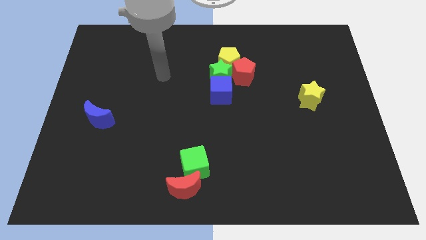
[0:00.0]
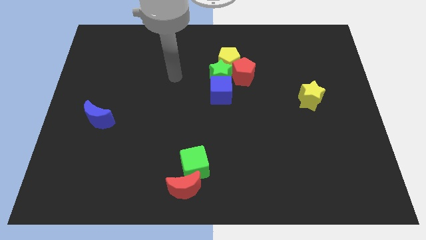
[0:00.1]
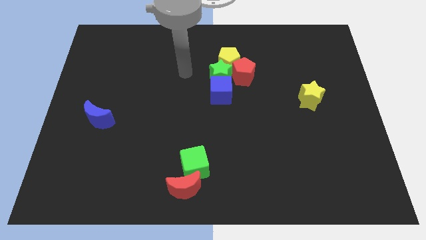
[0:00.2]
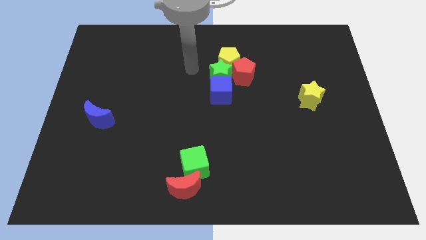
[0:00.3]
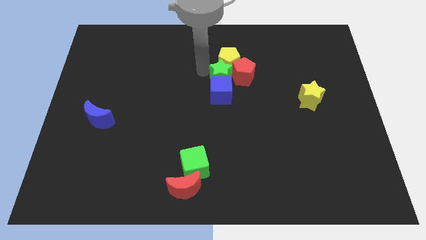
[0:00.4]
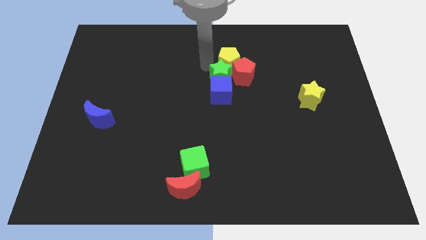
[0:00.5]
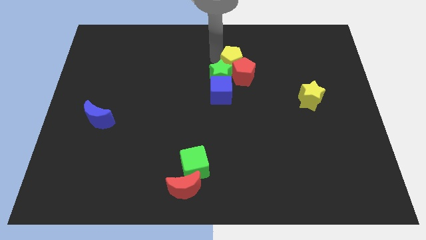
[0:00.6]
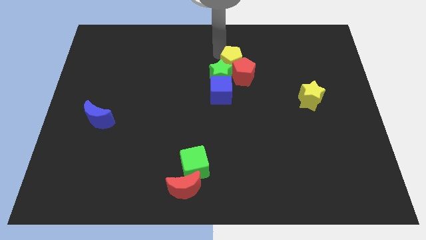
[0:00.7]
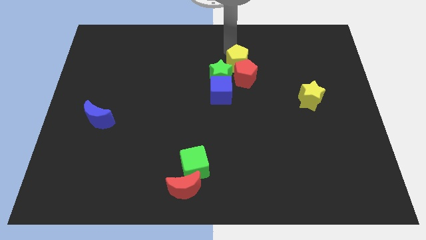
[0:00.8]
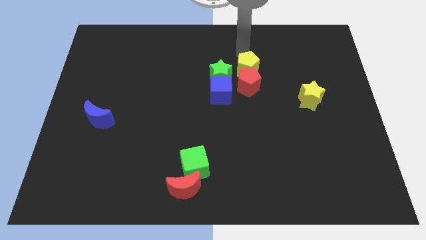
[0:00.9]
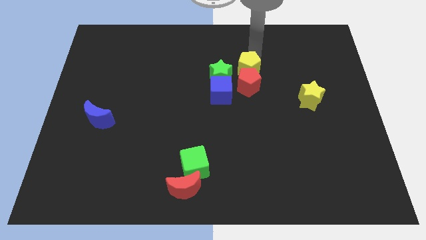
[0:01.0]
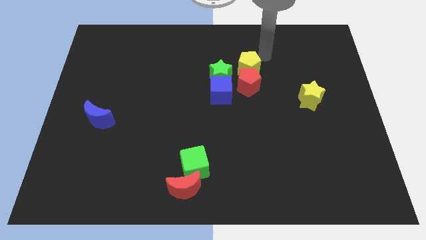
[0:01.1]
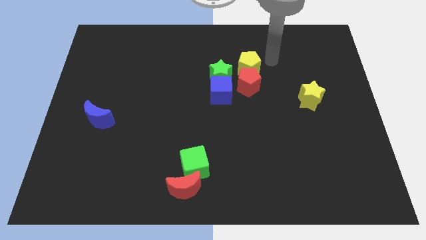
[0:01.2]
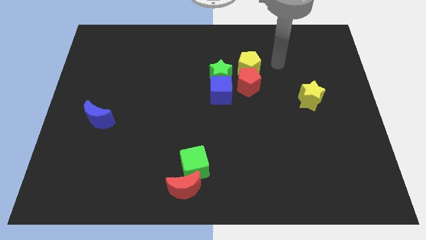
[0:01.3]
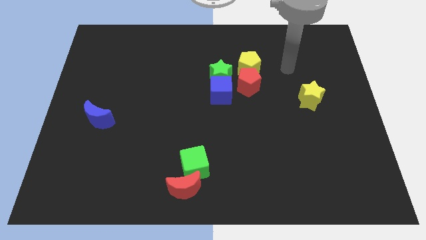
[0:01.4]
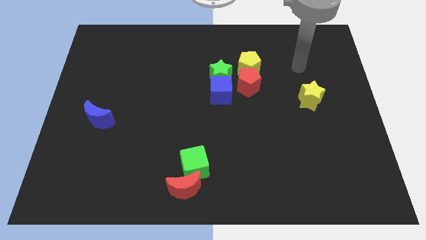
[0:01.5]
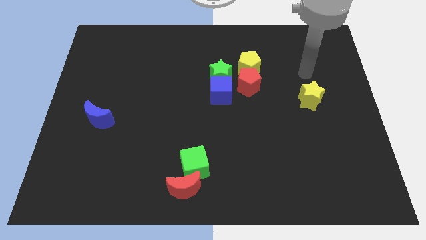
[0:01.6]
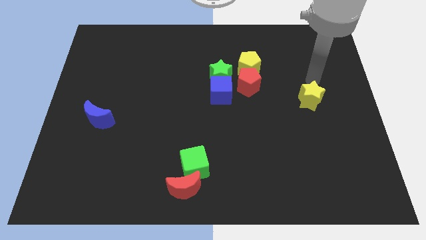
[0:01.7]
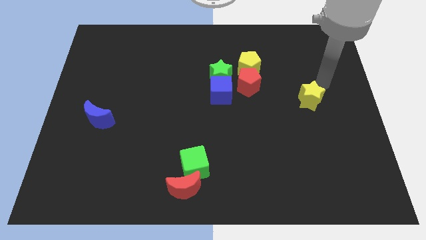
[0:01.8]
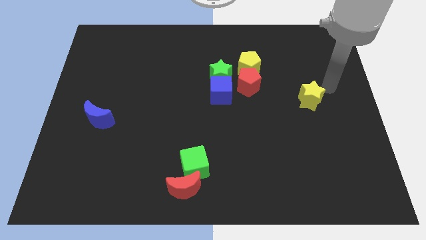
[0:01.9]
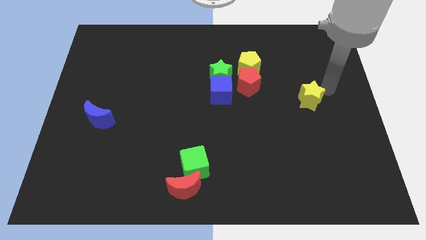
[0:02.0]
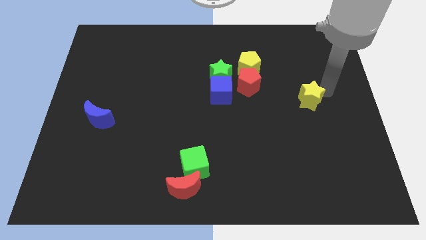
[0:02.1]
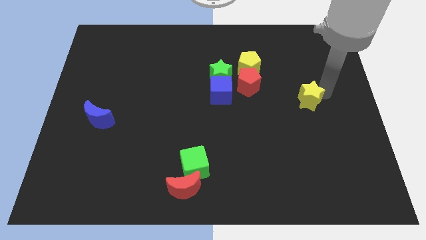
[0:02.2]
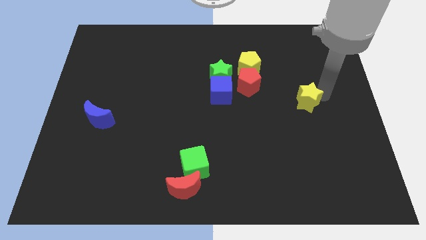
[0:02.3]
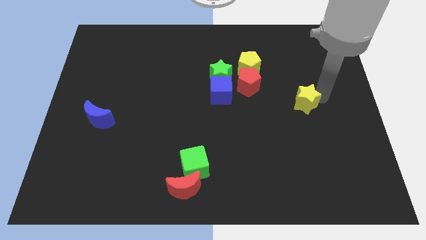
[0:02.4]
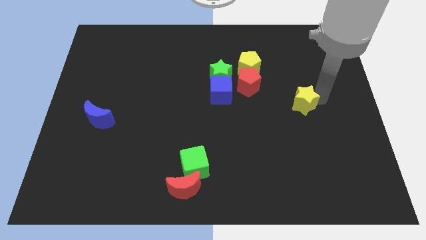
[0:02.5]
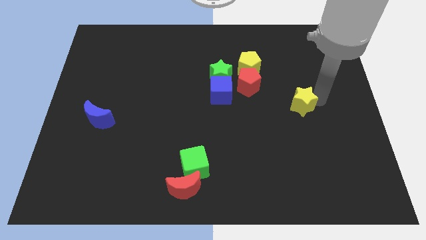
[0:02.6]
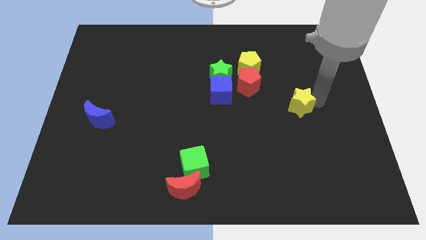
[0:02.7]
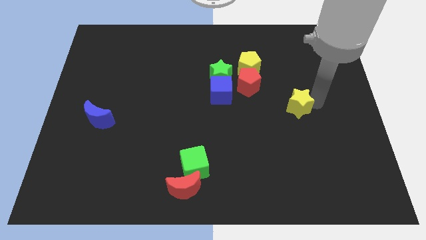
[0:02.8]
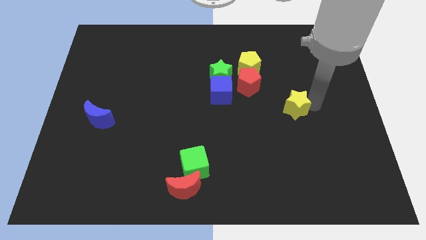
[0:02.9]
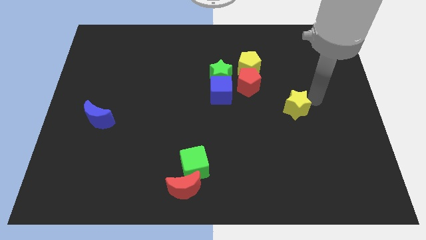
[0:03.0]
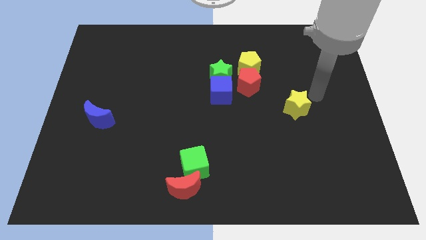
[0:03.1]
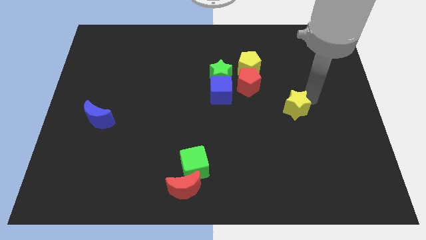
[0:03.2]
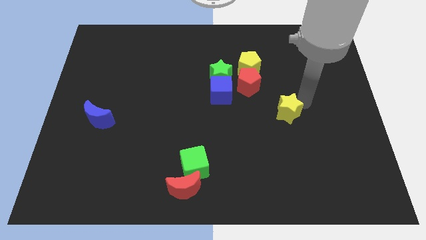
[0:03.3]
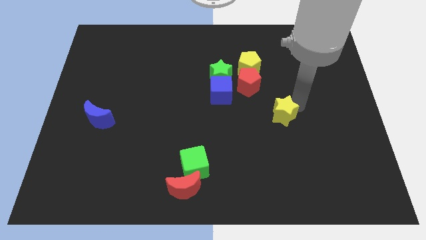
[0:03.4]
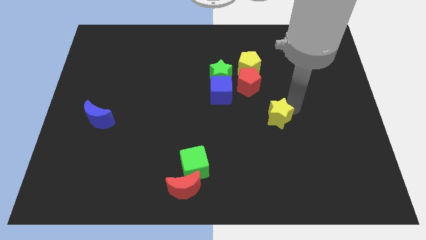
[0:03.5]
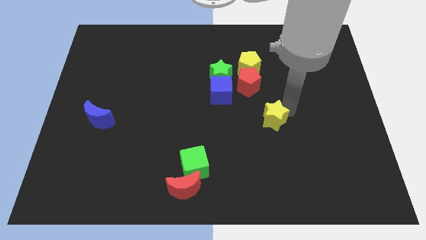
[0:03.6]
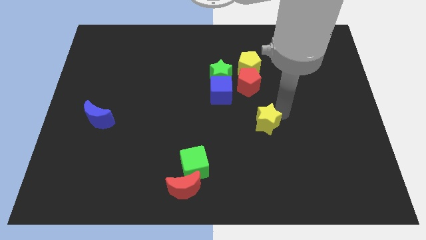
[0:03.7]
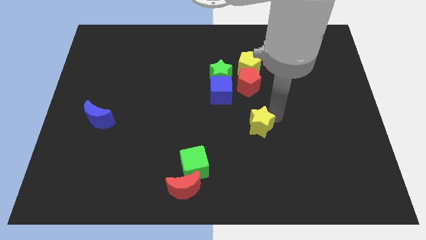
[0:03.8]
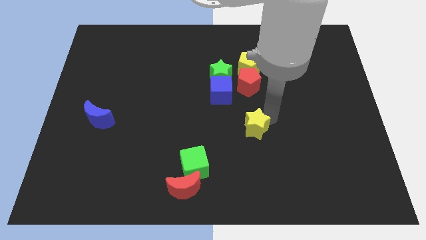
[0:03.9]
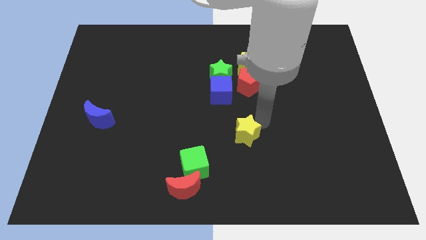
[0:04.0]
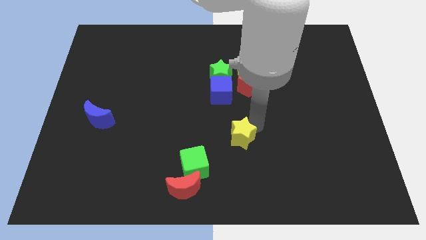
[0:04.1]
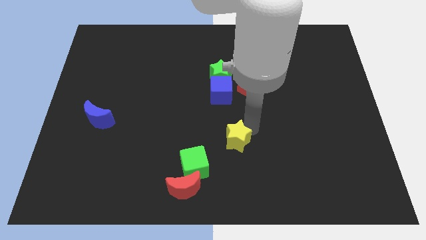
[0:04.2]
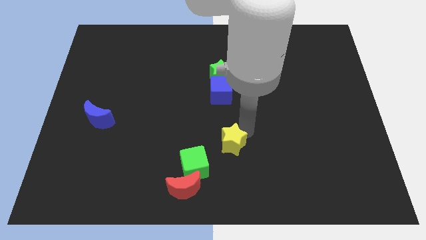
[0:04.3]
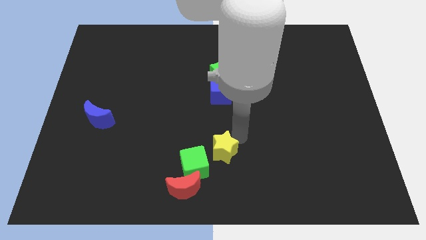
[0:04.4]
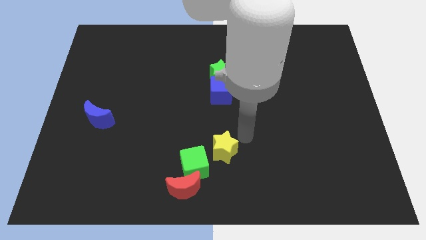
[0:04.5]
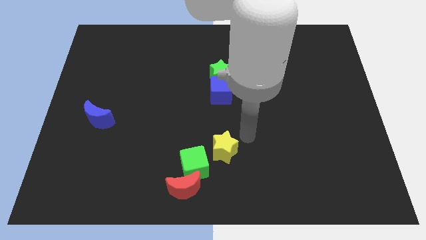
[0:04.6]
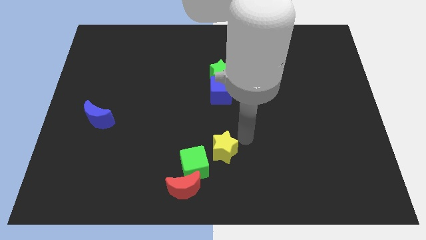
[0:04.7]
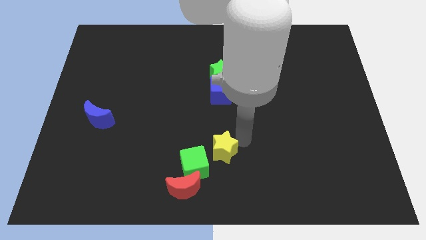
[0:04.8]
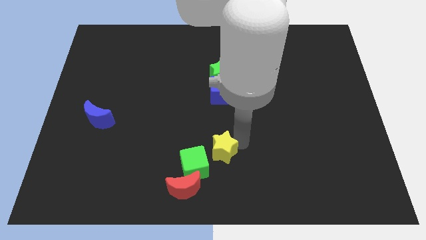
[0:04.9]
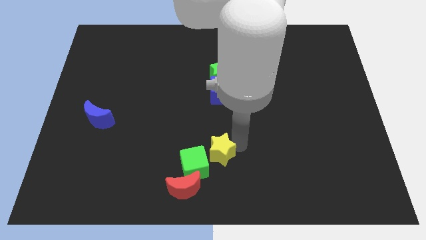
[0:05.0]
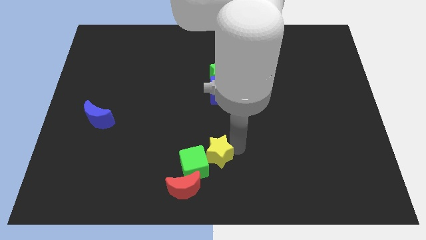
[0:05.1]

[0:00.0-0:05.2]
push the yellow star next to the green cube

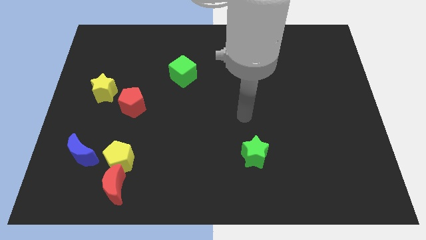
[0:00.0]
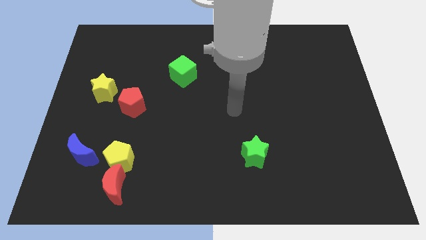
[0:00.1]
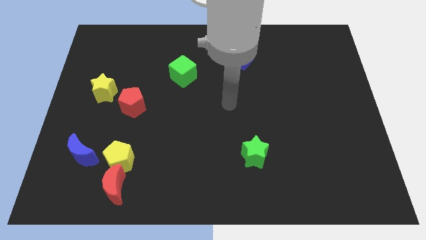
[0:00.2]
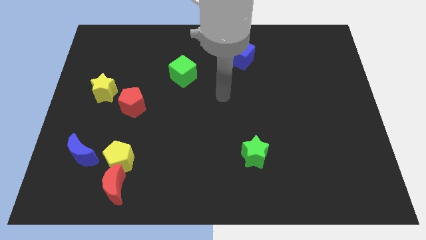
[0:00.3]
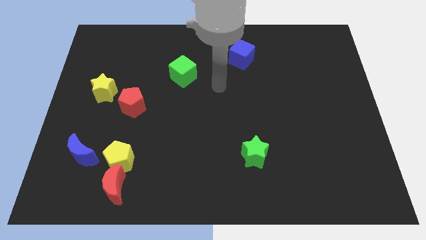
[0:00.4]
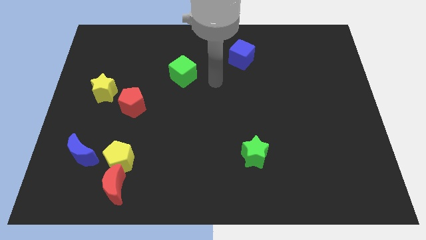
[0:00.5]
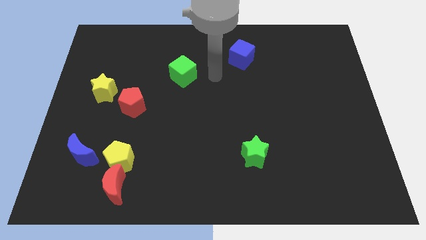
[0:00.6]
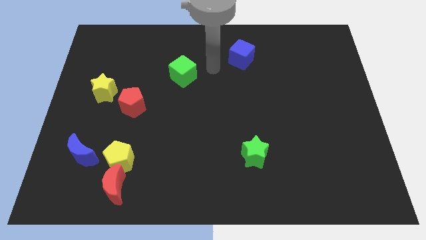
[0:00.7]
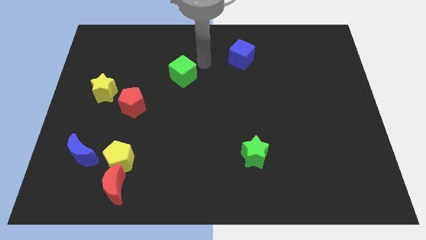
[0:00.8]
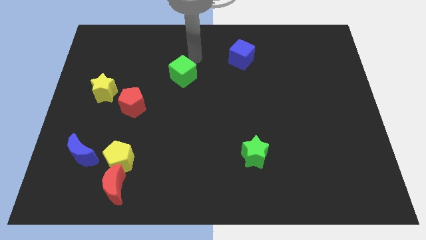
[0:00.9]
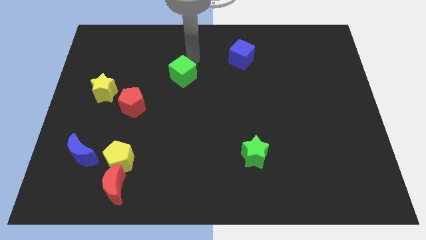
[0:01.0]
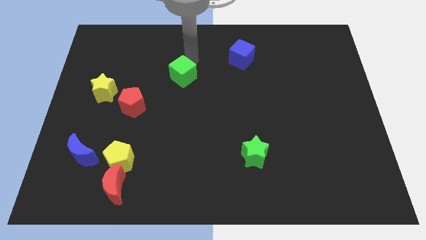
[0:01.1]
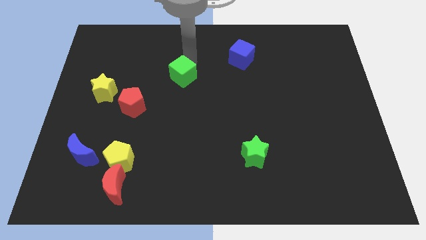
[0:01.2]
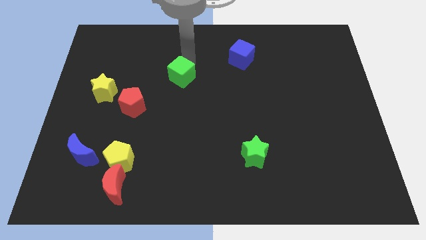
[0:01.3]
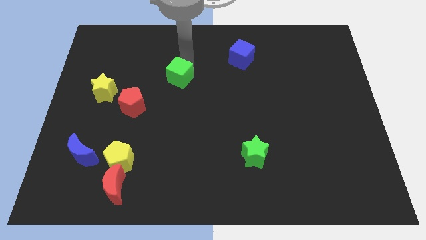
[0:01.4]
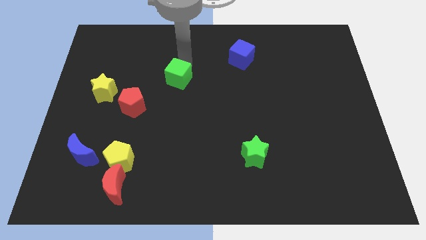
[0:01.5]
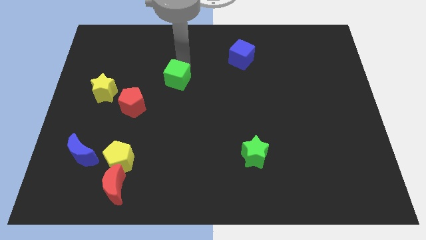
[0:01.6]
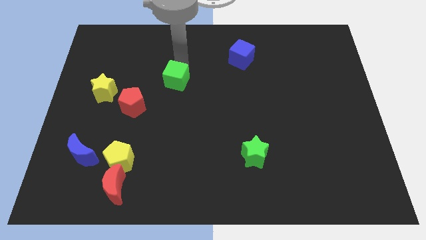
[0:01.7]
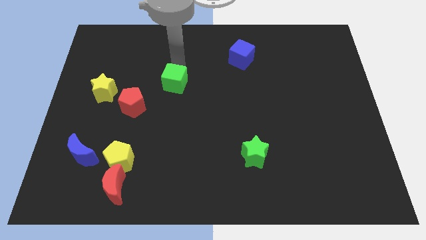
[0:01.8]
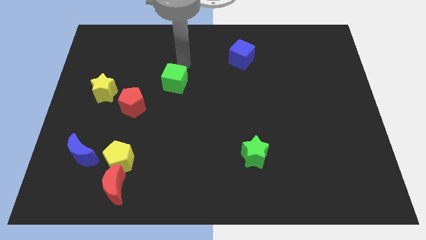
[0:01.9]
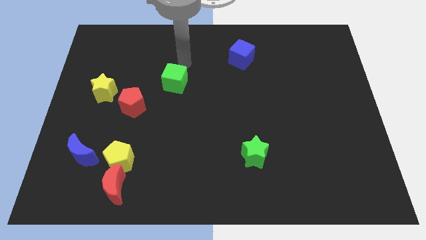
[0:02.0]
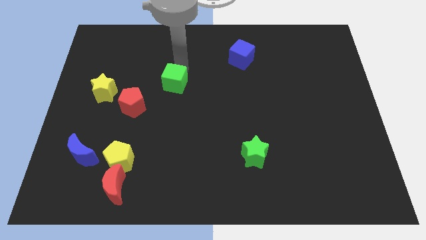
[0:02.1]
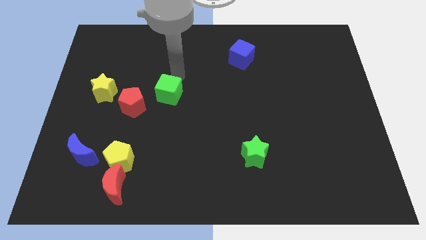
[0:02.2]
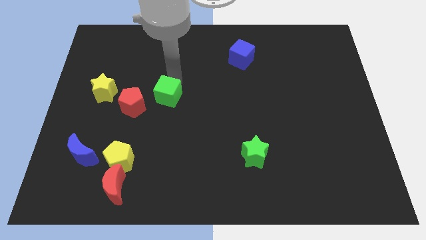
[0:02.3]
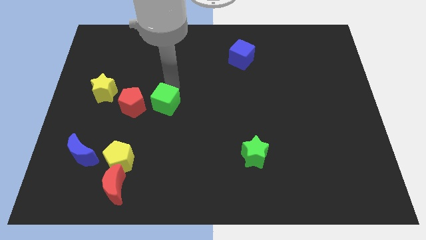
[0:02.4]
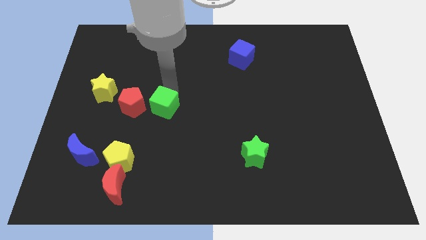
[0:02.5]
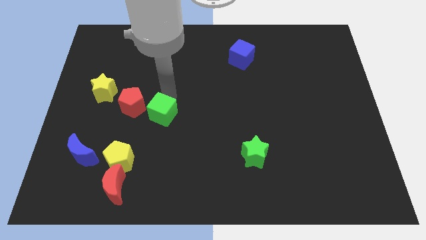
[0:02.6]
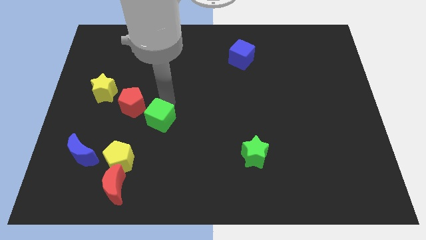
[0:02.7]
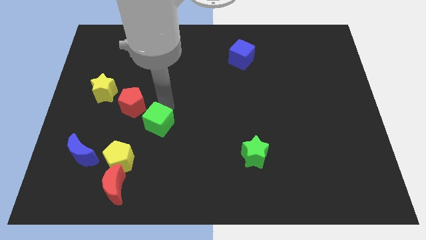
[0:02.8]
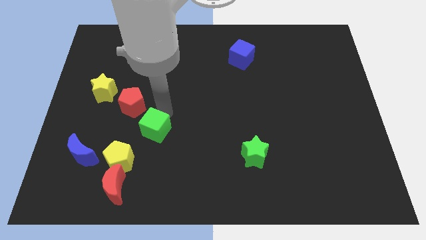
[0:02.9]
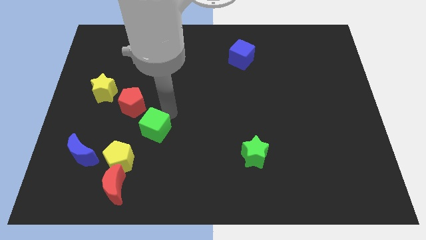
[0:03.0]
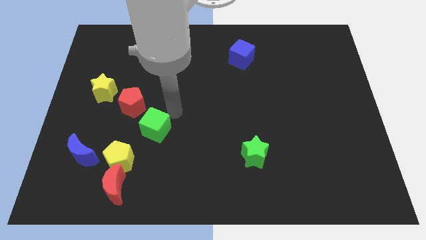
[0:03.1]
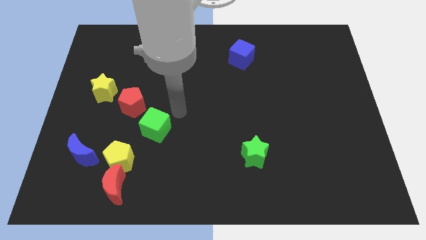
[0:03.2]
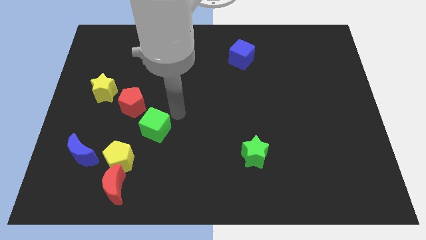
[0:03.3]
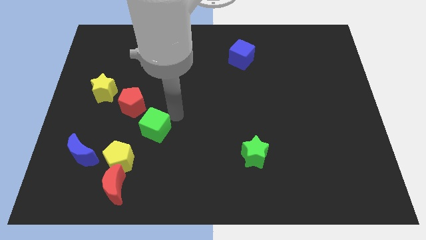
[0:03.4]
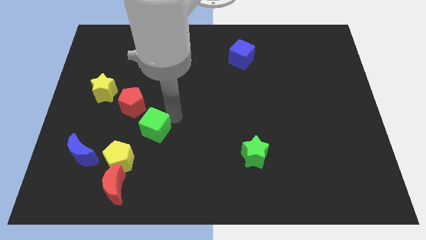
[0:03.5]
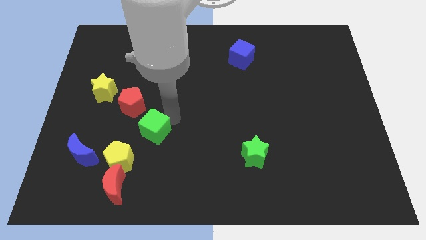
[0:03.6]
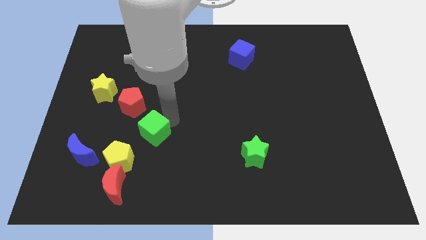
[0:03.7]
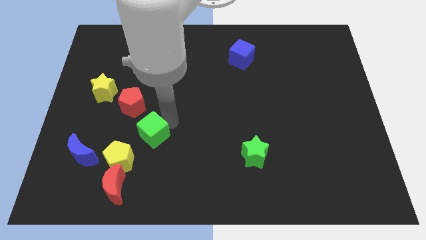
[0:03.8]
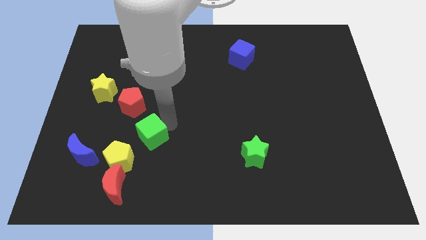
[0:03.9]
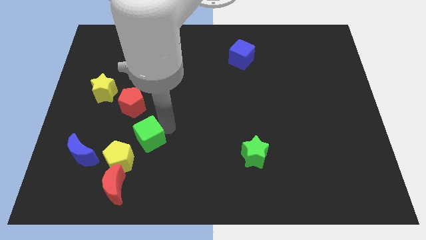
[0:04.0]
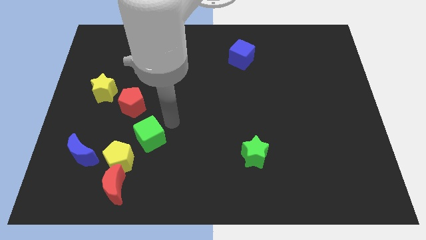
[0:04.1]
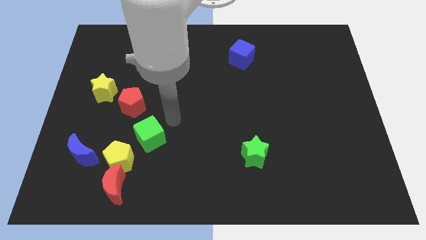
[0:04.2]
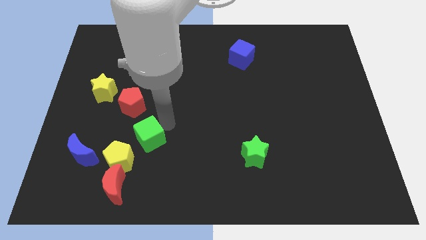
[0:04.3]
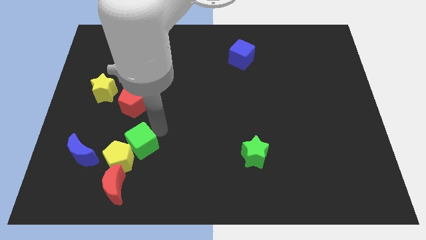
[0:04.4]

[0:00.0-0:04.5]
move the green cube to the yellow pentagon
